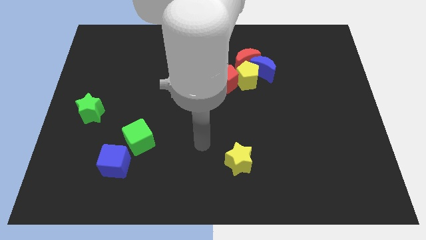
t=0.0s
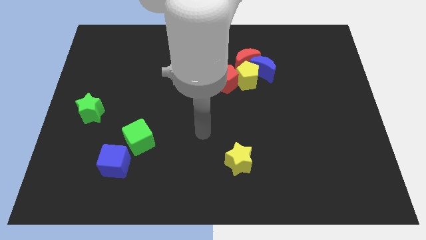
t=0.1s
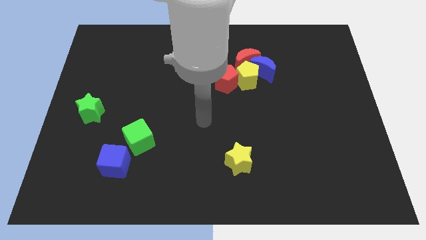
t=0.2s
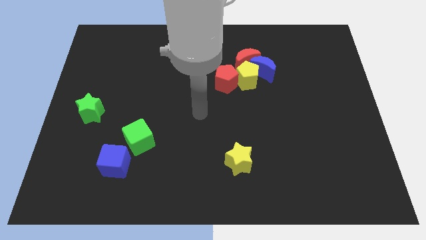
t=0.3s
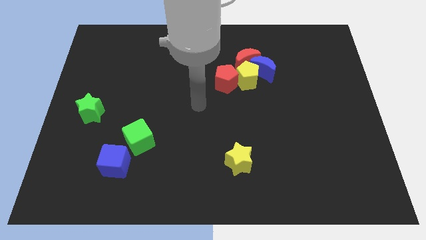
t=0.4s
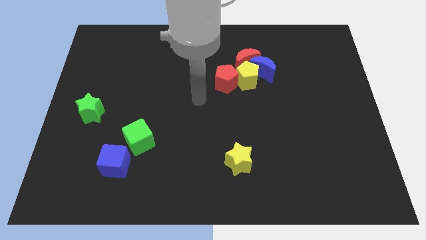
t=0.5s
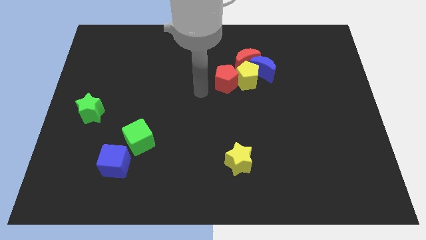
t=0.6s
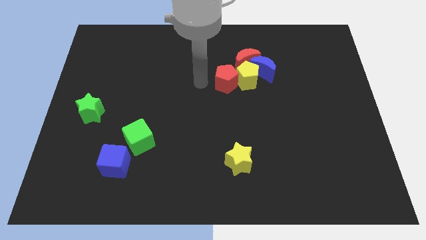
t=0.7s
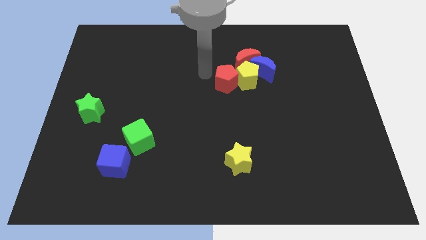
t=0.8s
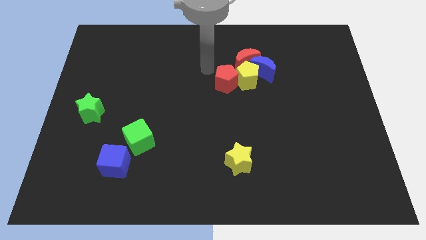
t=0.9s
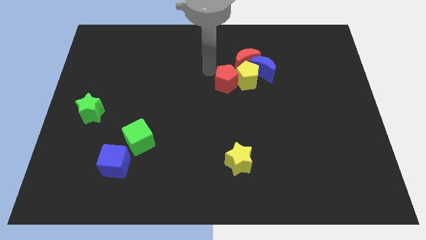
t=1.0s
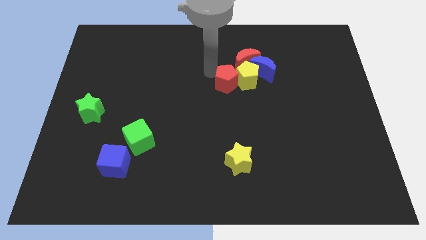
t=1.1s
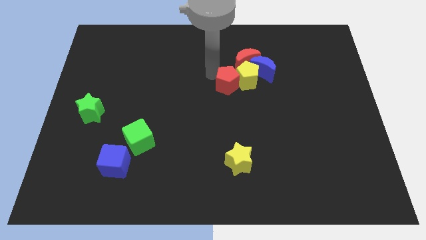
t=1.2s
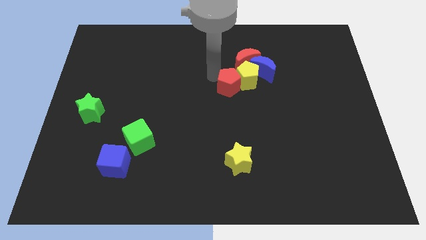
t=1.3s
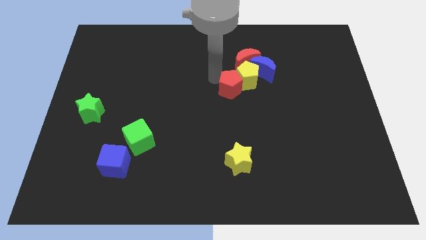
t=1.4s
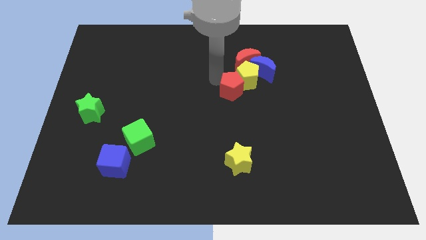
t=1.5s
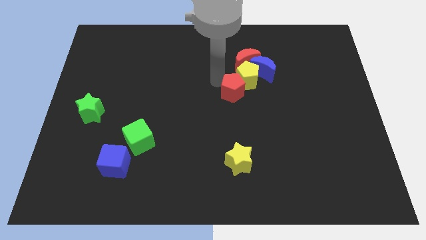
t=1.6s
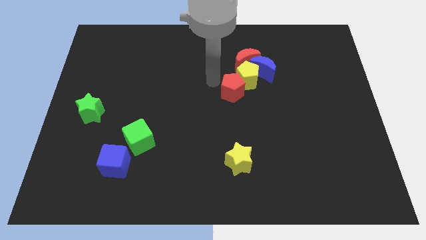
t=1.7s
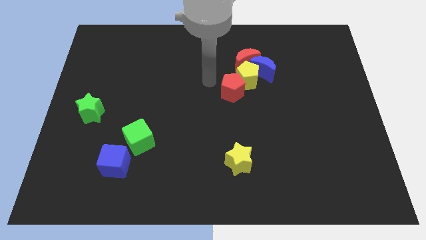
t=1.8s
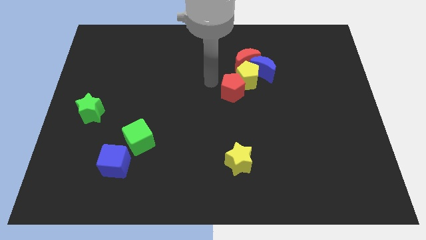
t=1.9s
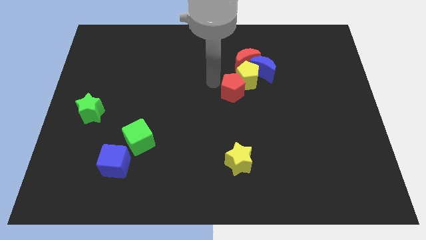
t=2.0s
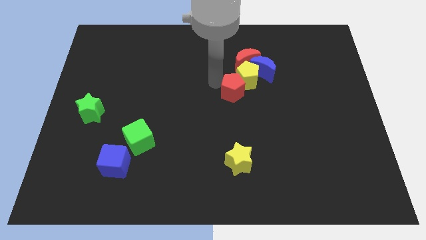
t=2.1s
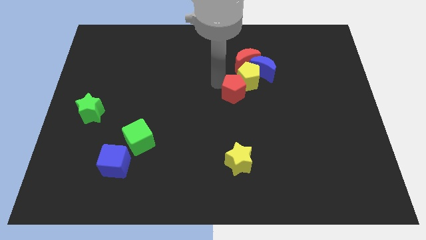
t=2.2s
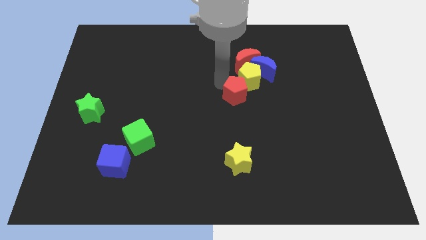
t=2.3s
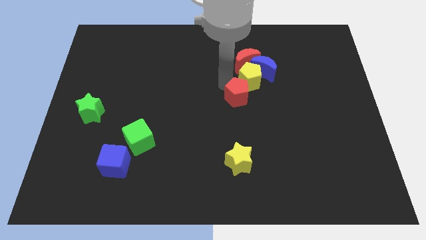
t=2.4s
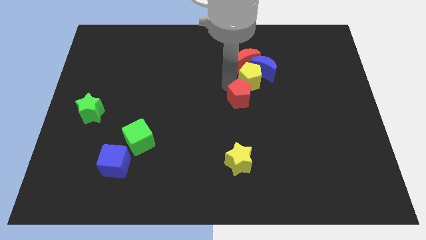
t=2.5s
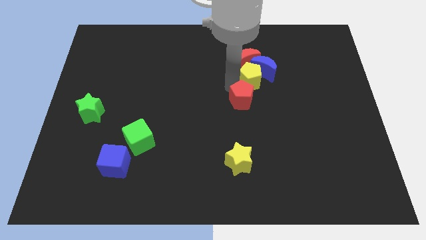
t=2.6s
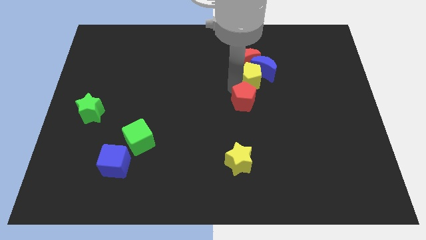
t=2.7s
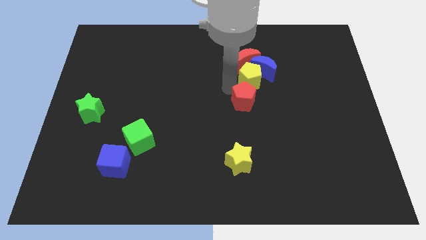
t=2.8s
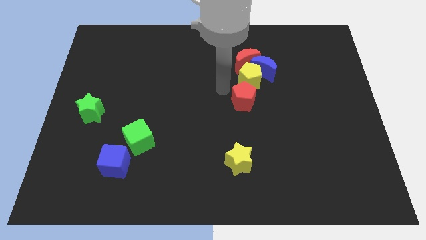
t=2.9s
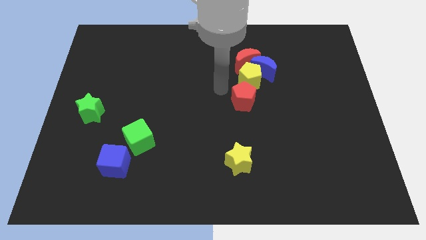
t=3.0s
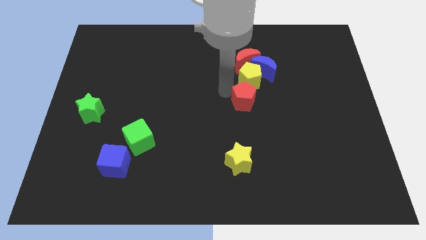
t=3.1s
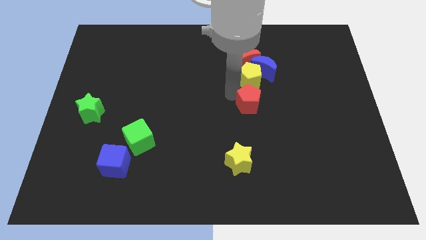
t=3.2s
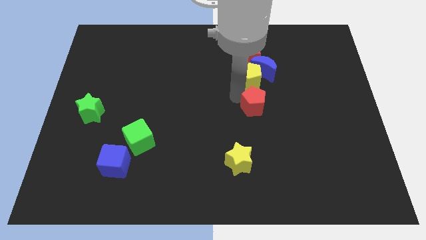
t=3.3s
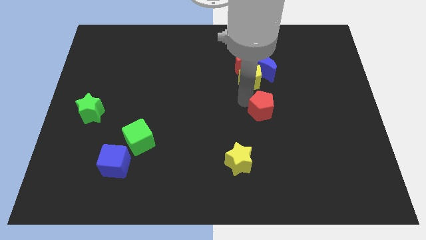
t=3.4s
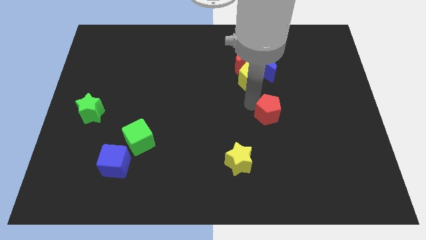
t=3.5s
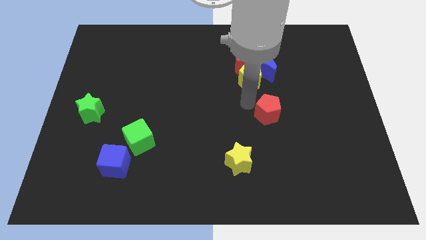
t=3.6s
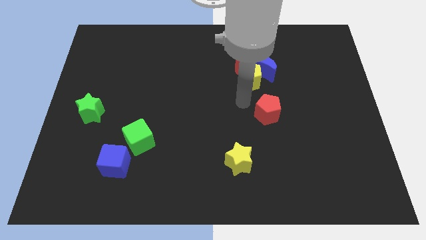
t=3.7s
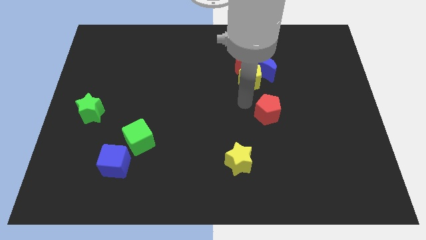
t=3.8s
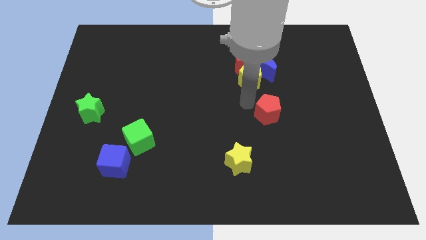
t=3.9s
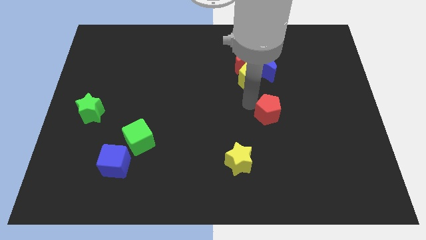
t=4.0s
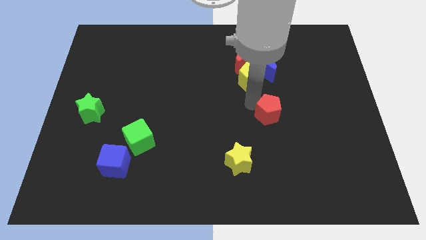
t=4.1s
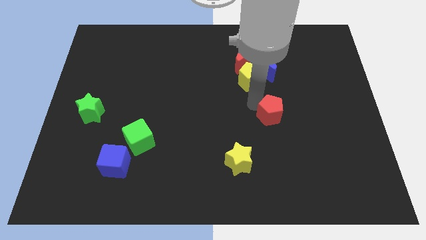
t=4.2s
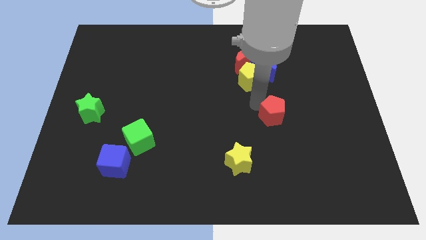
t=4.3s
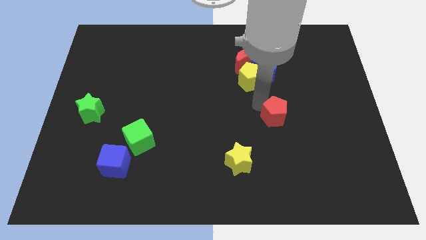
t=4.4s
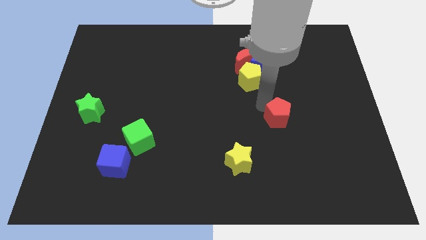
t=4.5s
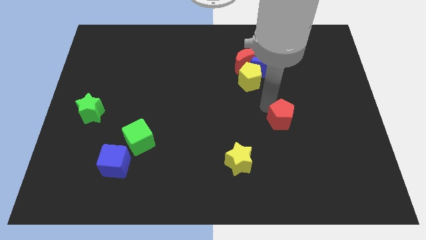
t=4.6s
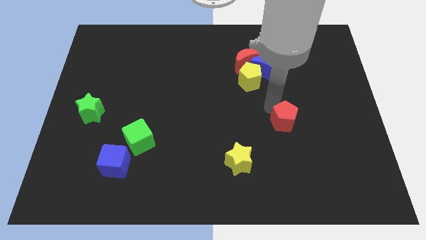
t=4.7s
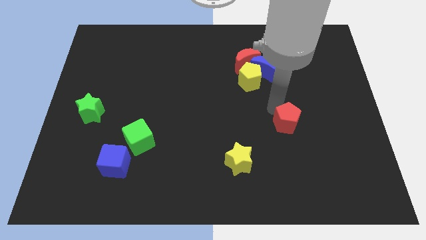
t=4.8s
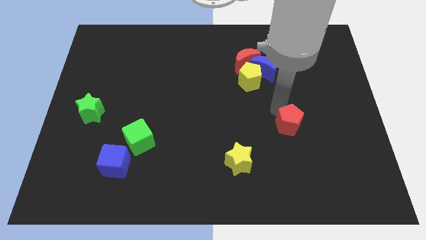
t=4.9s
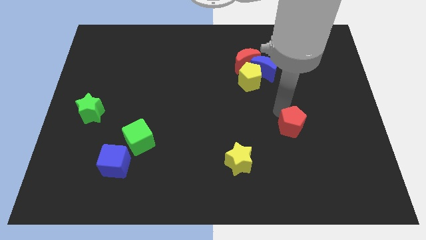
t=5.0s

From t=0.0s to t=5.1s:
move the red pentagon down and to the right diagonally

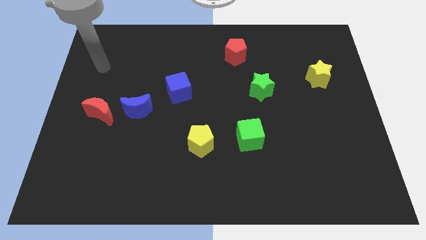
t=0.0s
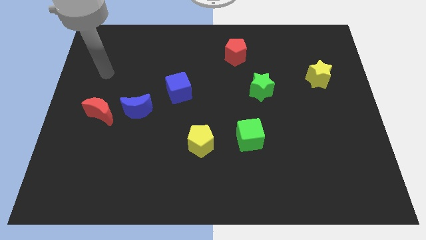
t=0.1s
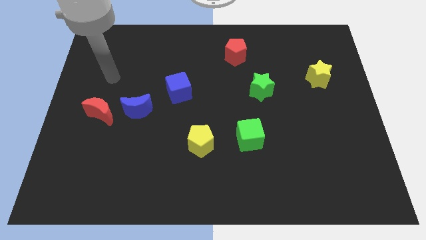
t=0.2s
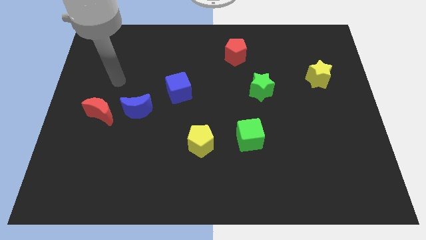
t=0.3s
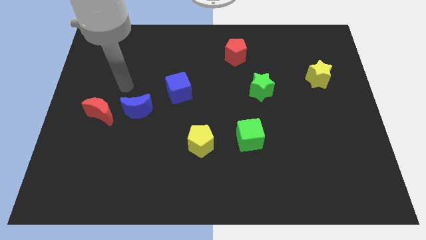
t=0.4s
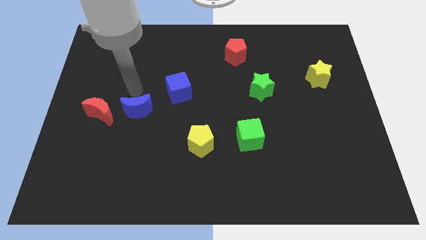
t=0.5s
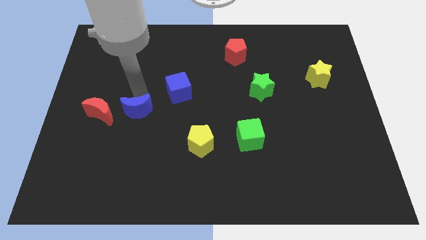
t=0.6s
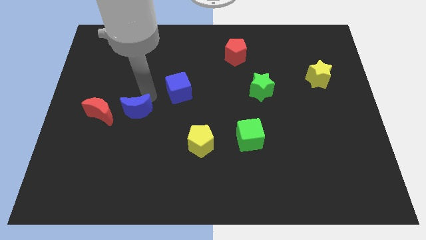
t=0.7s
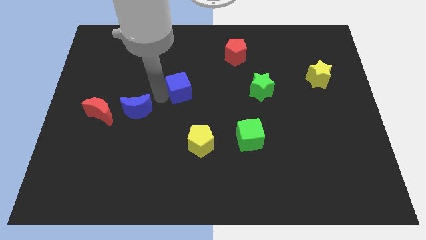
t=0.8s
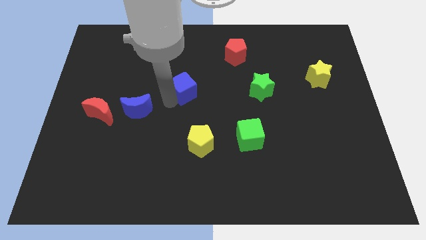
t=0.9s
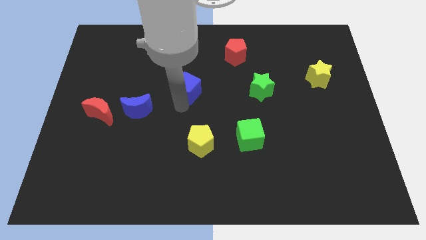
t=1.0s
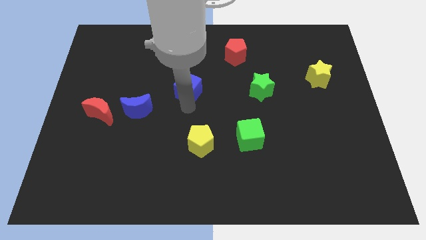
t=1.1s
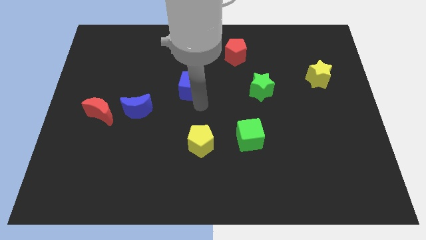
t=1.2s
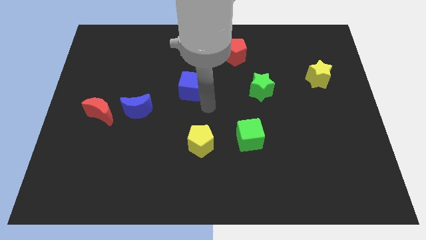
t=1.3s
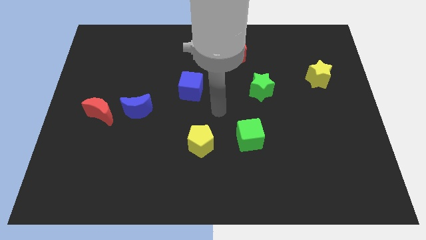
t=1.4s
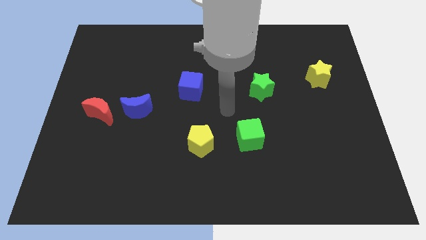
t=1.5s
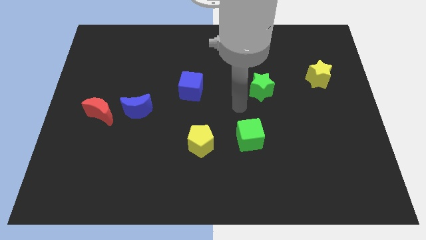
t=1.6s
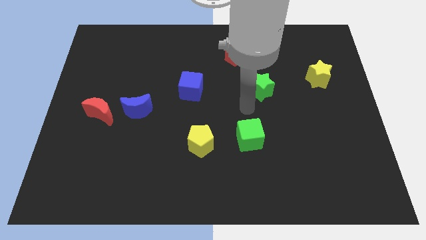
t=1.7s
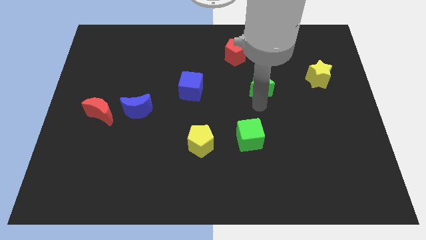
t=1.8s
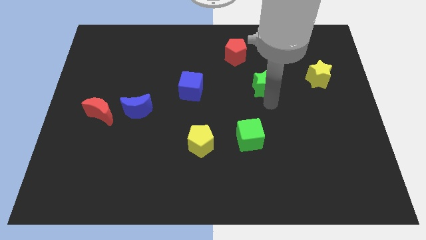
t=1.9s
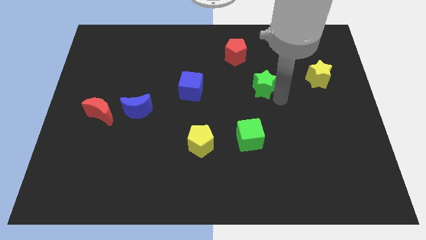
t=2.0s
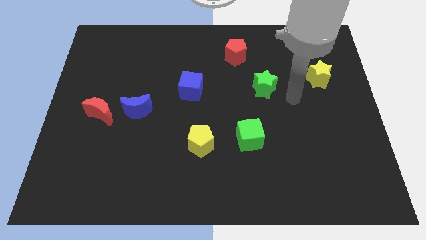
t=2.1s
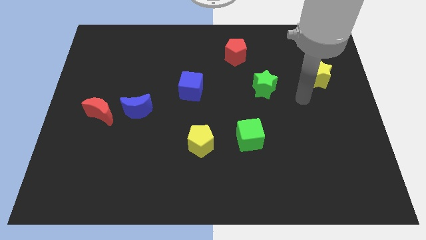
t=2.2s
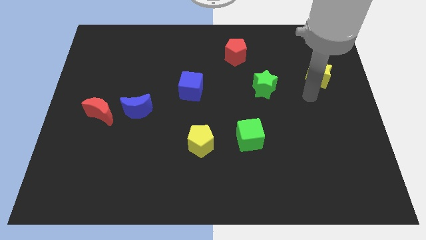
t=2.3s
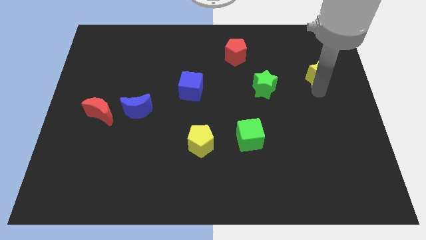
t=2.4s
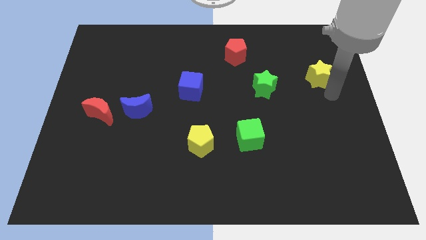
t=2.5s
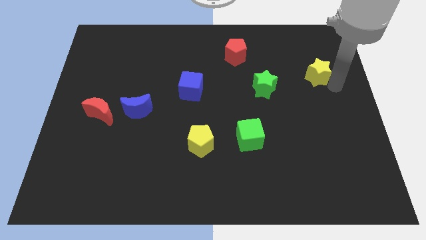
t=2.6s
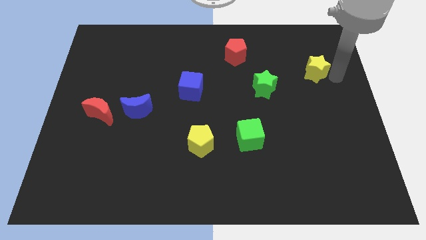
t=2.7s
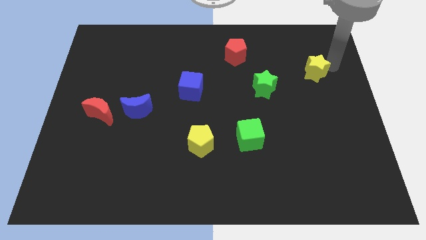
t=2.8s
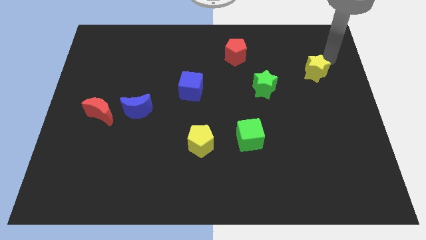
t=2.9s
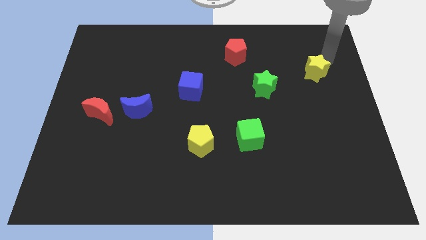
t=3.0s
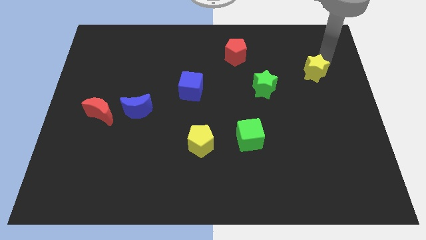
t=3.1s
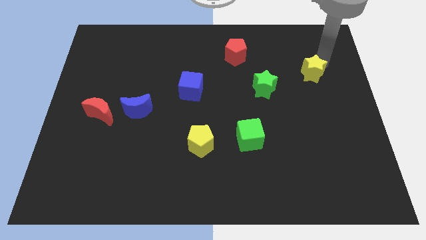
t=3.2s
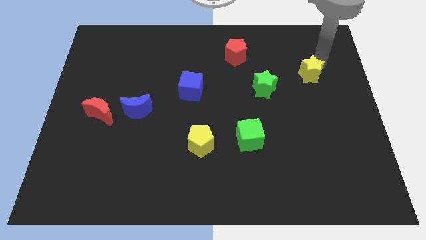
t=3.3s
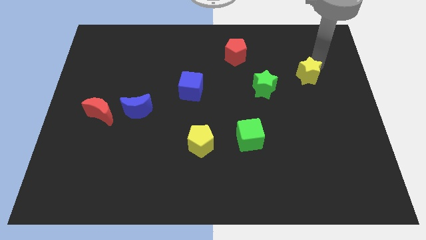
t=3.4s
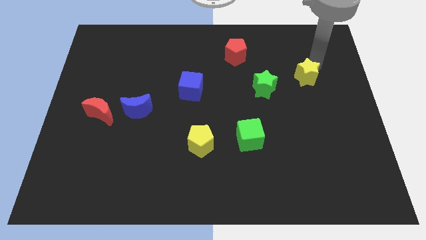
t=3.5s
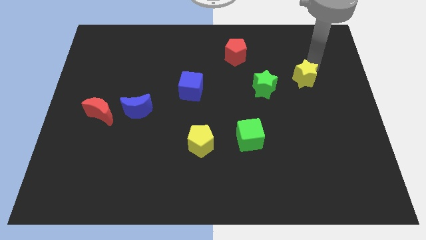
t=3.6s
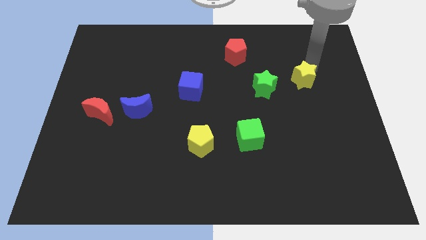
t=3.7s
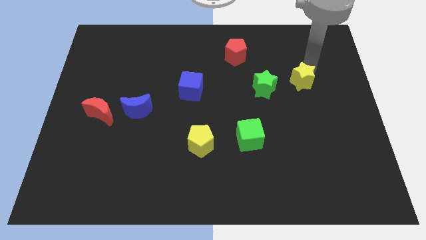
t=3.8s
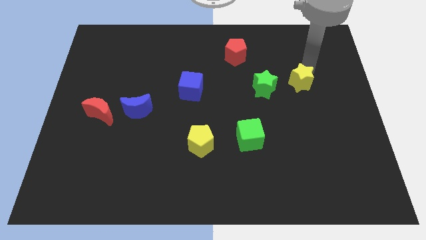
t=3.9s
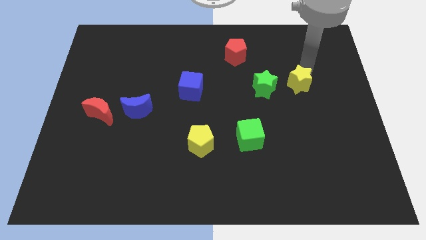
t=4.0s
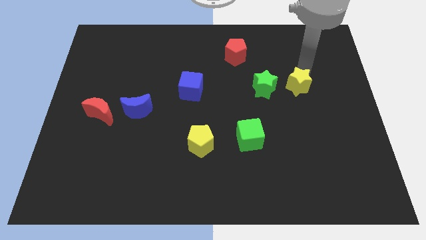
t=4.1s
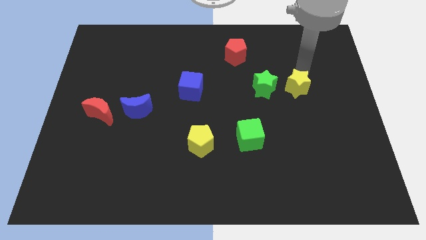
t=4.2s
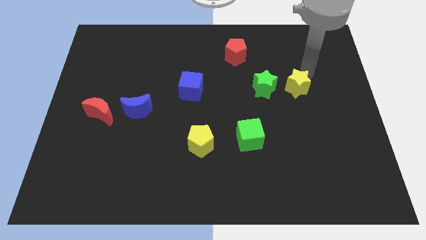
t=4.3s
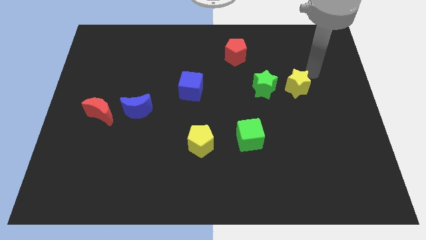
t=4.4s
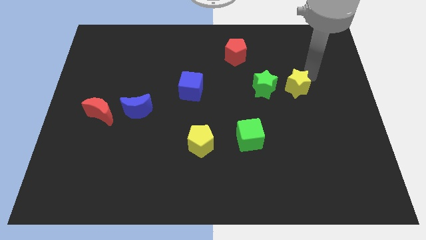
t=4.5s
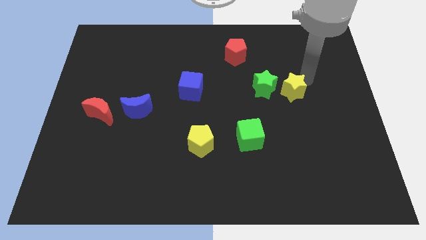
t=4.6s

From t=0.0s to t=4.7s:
push the yellow star slightly down and left
